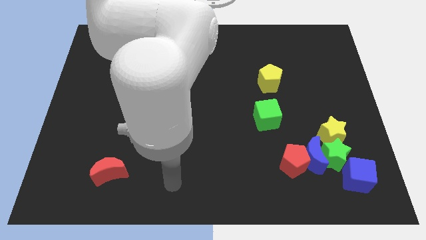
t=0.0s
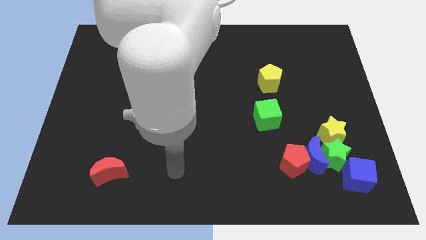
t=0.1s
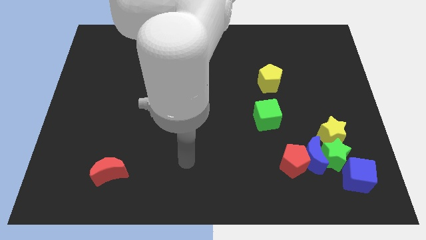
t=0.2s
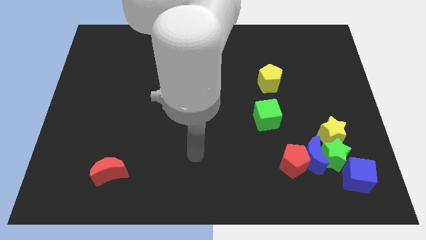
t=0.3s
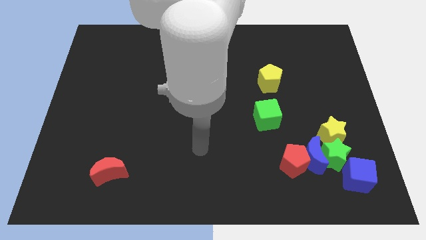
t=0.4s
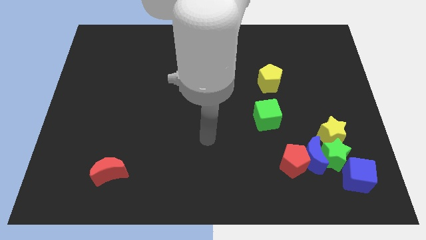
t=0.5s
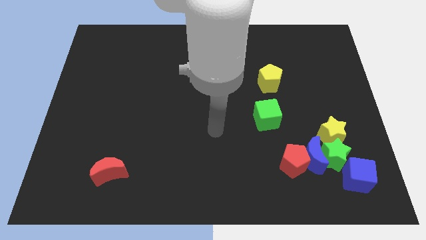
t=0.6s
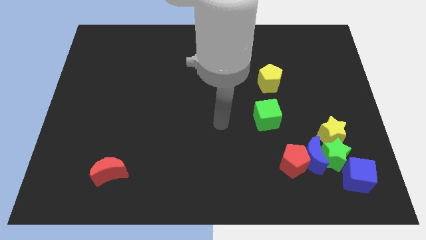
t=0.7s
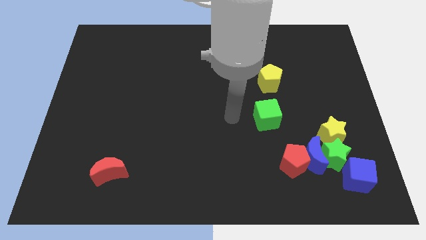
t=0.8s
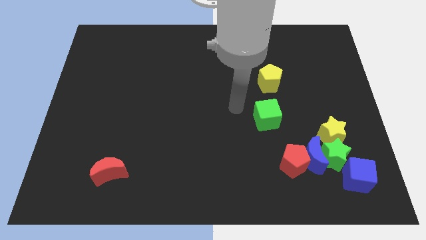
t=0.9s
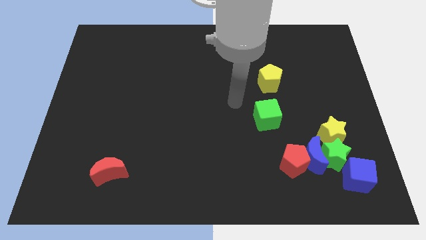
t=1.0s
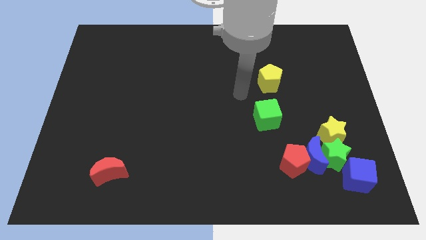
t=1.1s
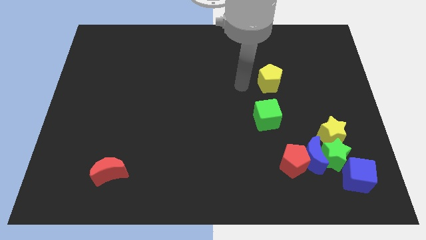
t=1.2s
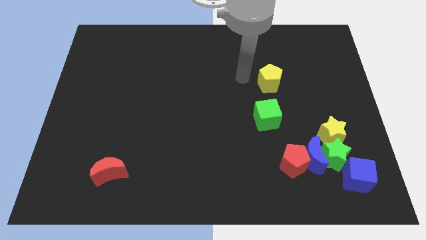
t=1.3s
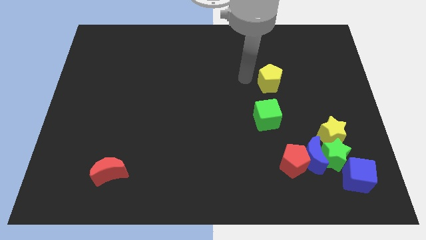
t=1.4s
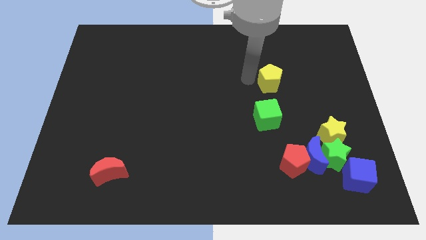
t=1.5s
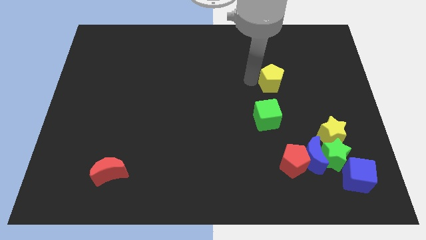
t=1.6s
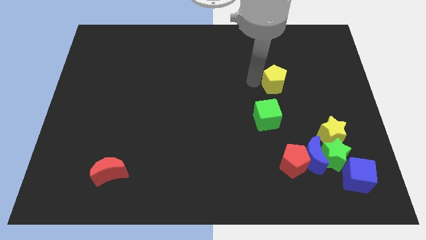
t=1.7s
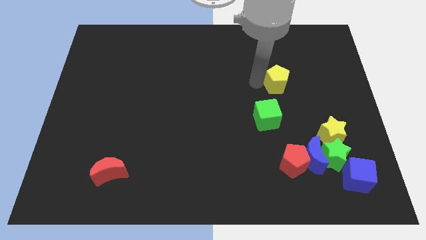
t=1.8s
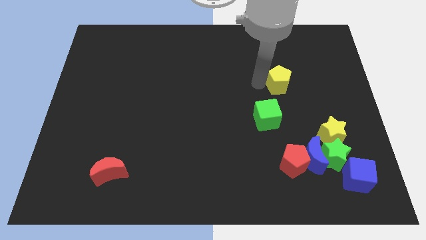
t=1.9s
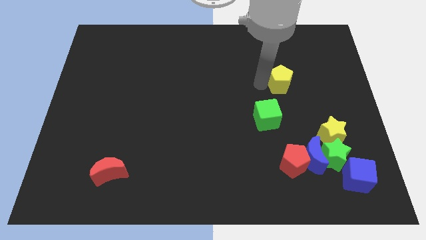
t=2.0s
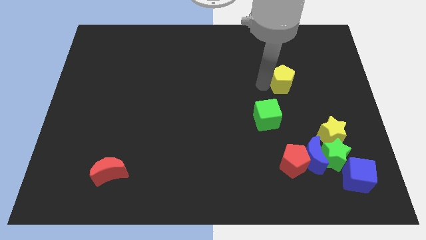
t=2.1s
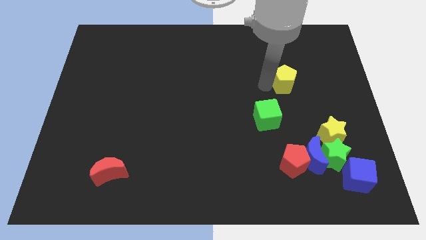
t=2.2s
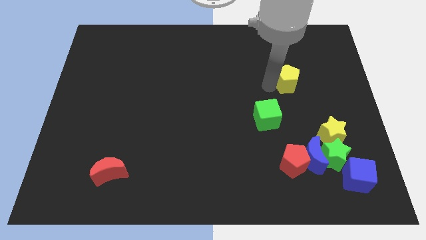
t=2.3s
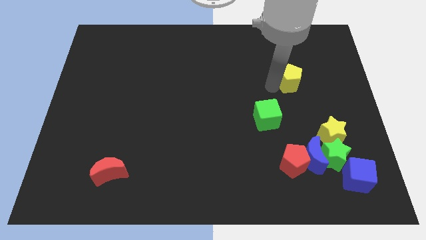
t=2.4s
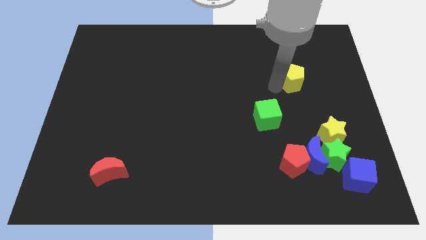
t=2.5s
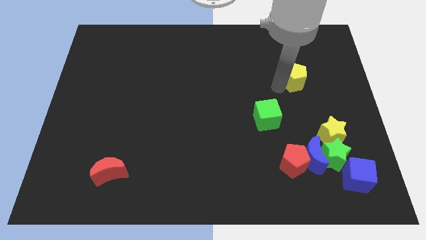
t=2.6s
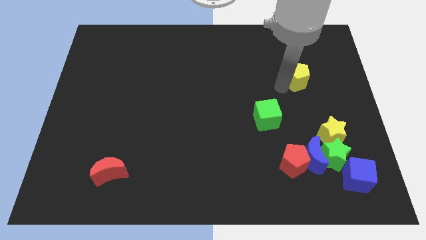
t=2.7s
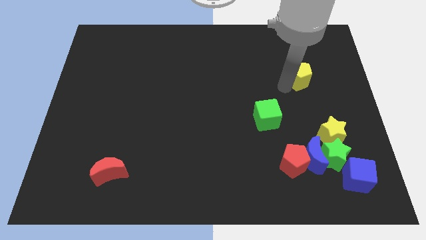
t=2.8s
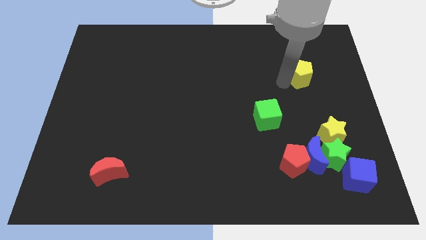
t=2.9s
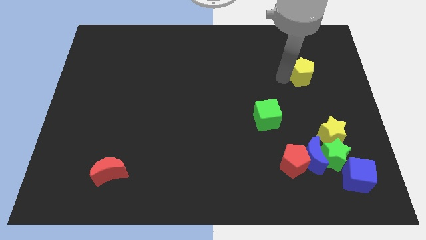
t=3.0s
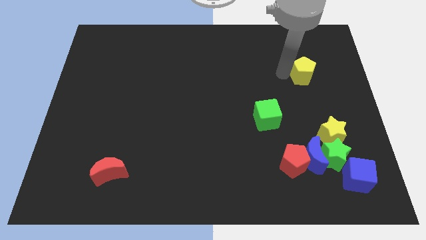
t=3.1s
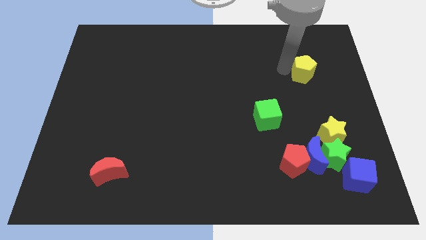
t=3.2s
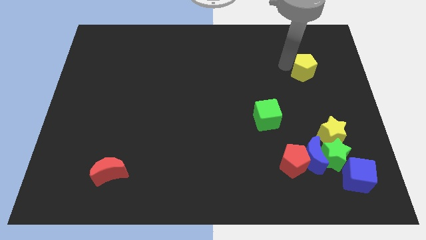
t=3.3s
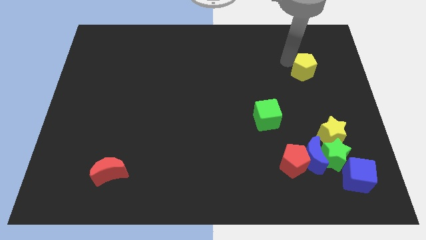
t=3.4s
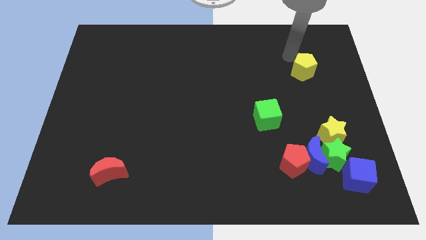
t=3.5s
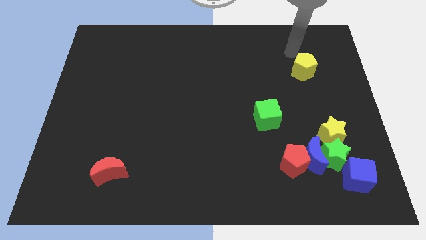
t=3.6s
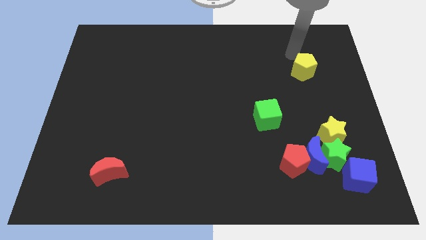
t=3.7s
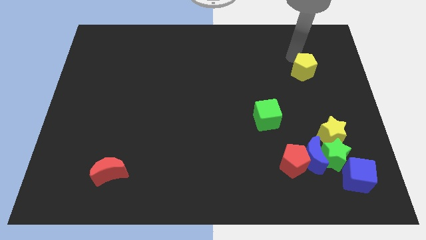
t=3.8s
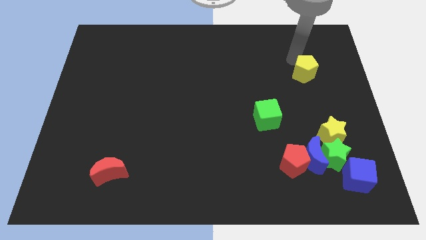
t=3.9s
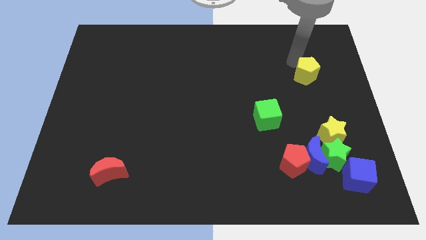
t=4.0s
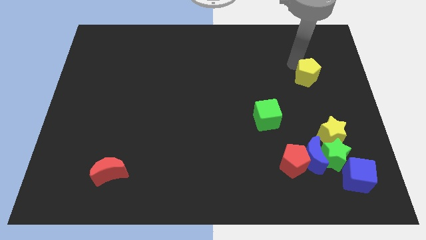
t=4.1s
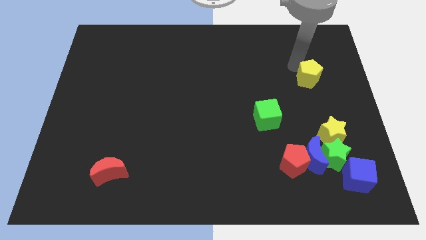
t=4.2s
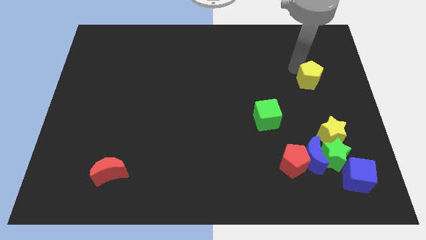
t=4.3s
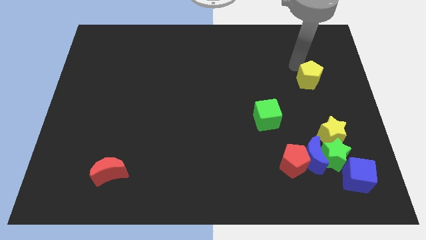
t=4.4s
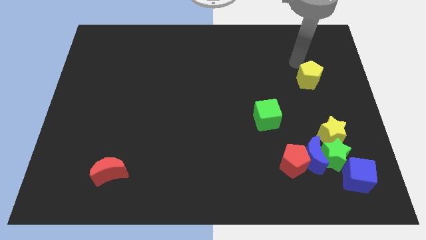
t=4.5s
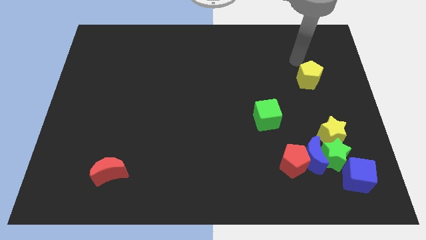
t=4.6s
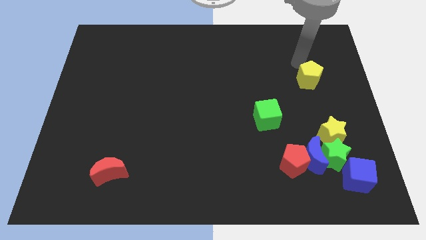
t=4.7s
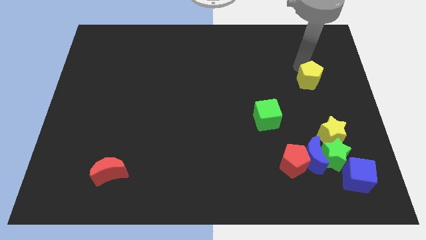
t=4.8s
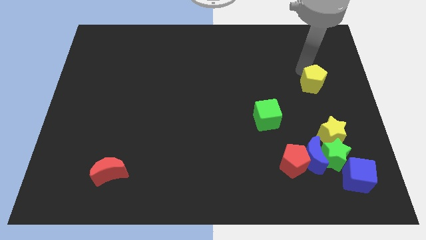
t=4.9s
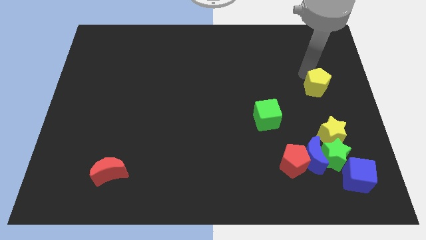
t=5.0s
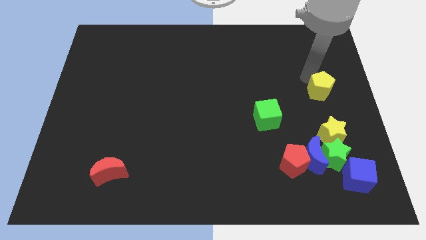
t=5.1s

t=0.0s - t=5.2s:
move the yellow pentagon to the right side

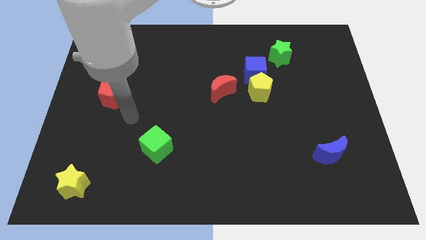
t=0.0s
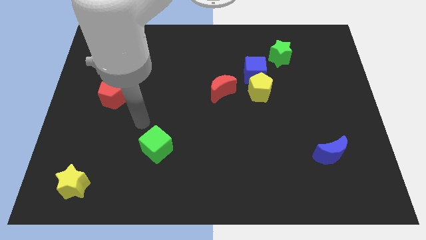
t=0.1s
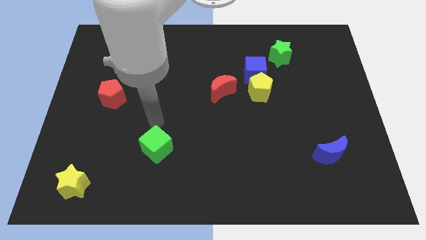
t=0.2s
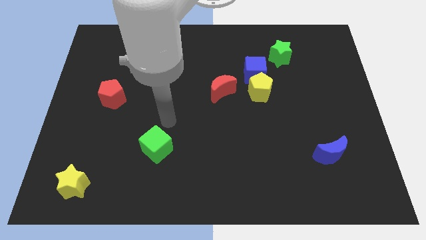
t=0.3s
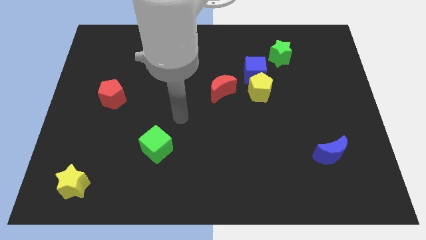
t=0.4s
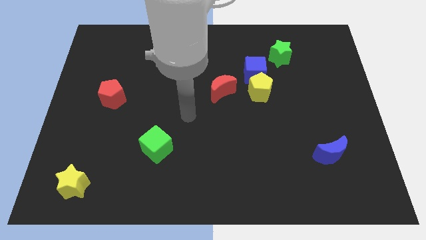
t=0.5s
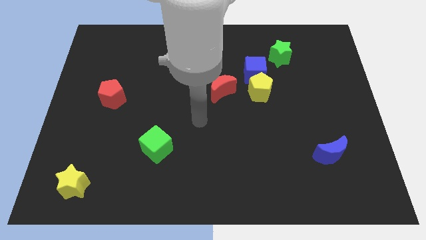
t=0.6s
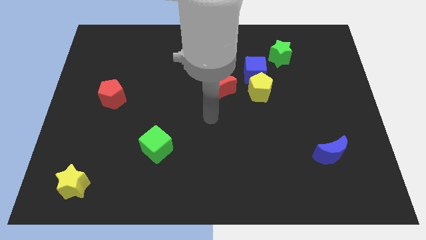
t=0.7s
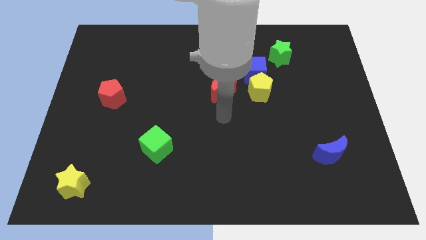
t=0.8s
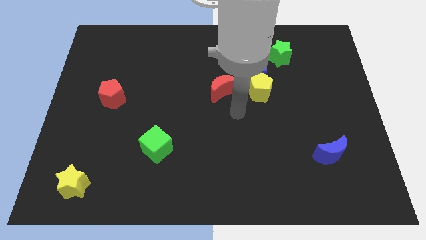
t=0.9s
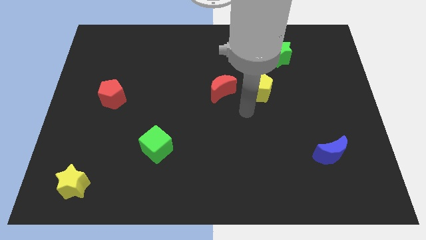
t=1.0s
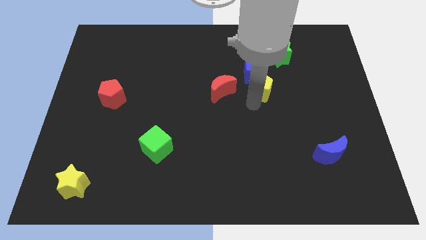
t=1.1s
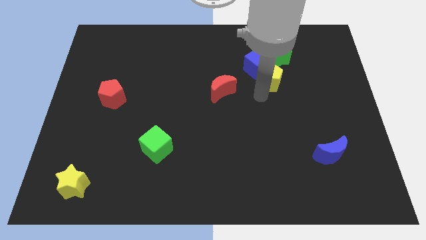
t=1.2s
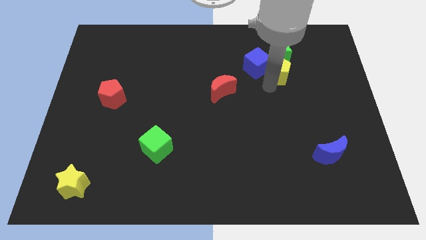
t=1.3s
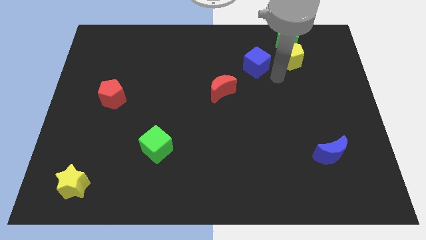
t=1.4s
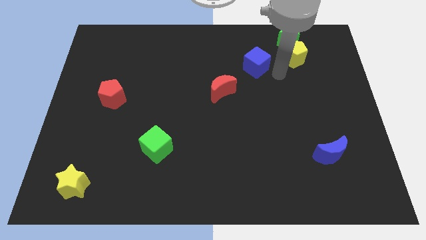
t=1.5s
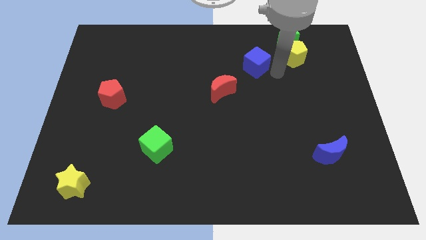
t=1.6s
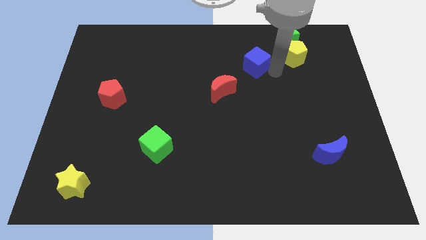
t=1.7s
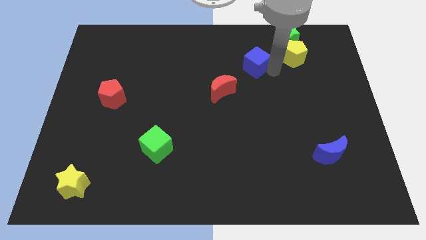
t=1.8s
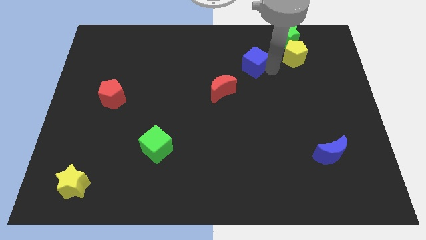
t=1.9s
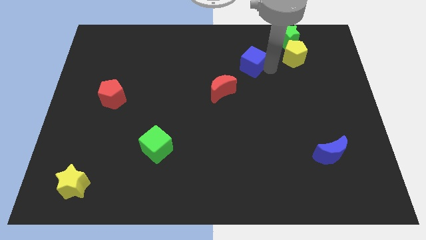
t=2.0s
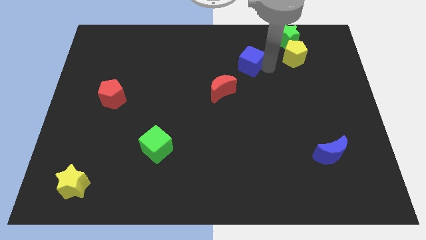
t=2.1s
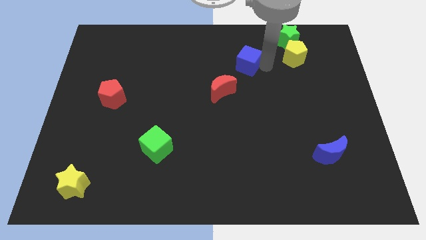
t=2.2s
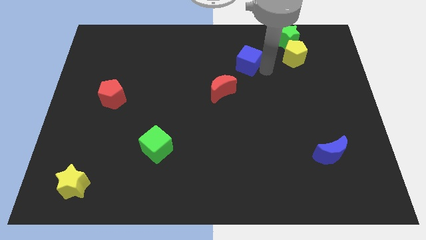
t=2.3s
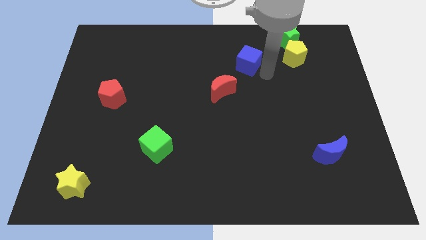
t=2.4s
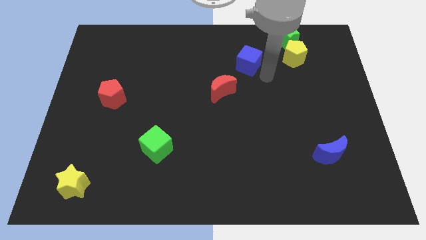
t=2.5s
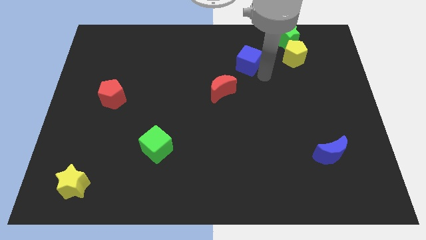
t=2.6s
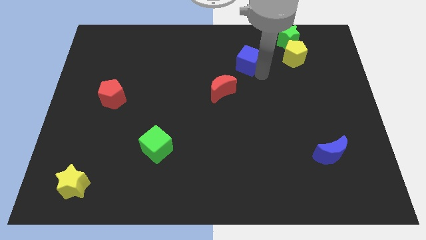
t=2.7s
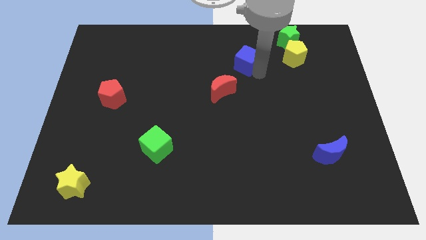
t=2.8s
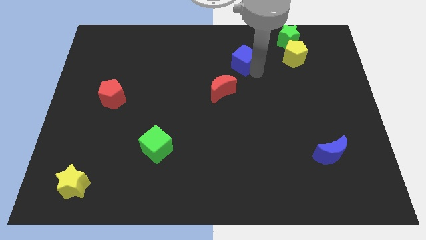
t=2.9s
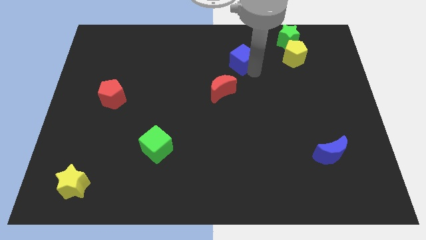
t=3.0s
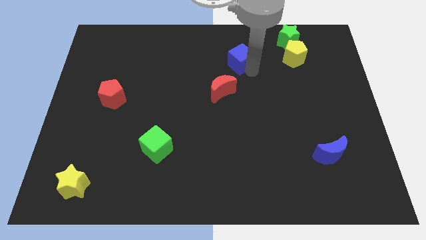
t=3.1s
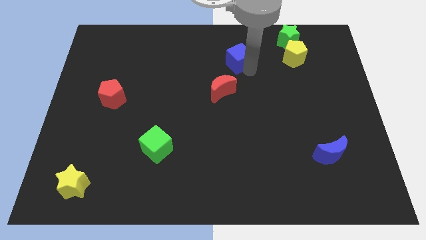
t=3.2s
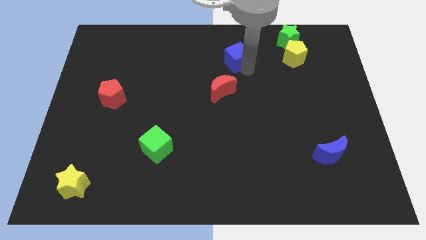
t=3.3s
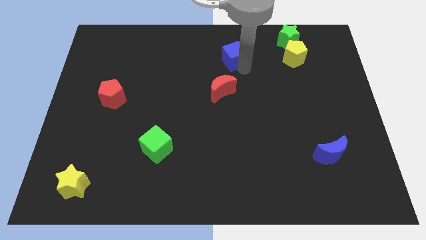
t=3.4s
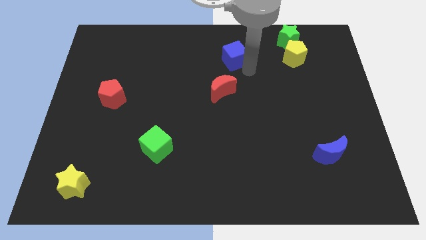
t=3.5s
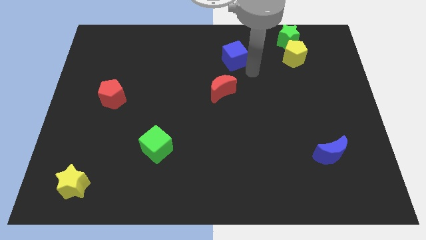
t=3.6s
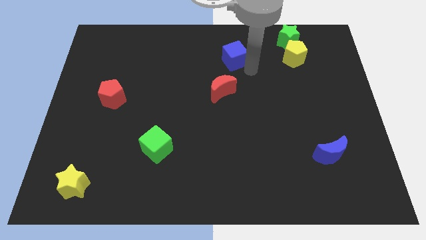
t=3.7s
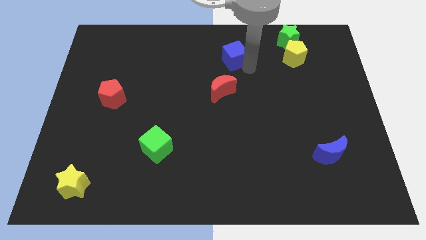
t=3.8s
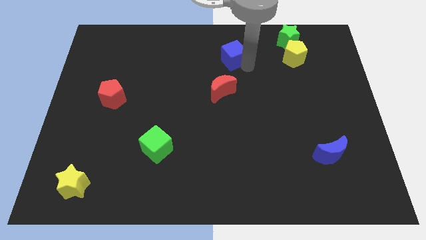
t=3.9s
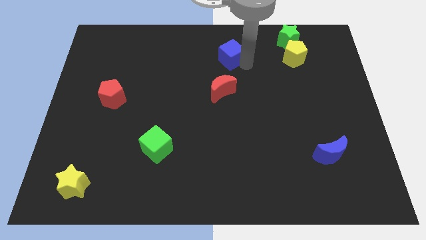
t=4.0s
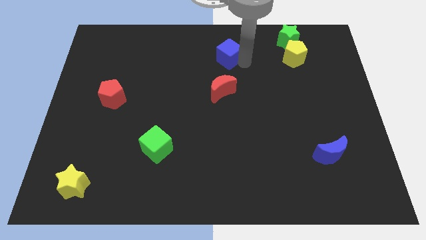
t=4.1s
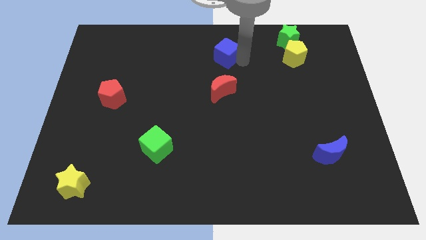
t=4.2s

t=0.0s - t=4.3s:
push the blue cube to the top
